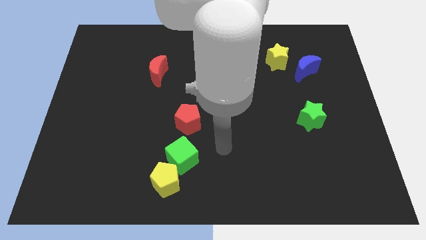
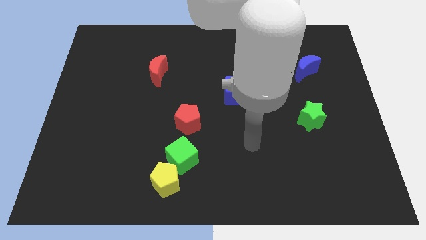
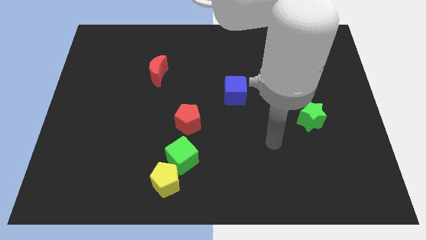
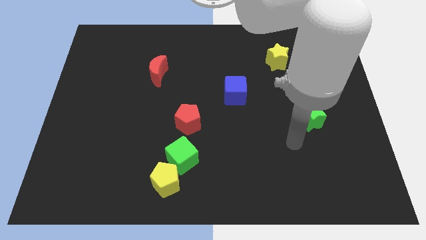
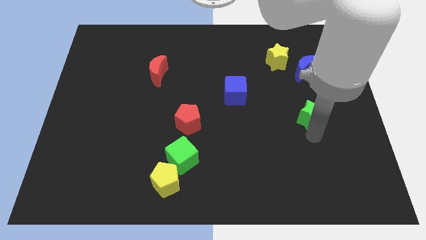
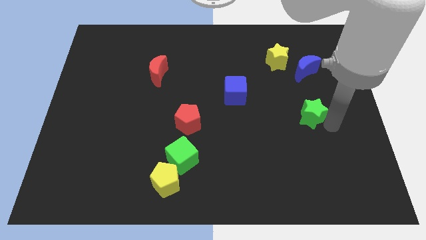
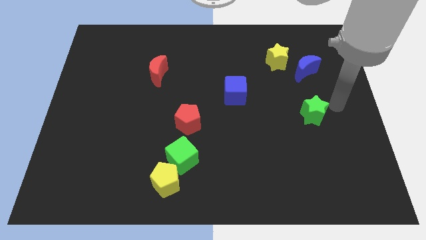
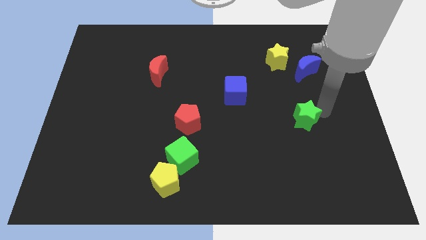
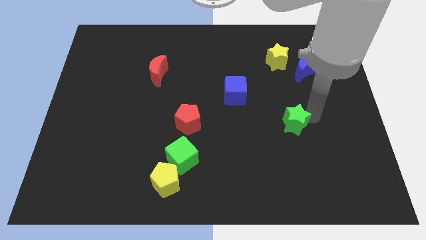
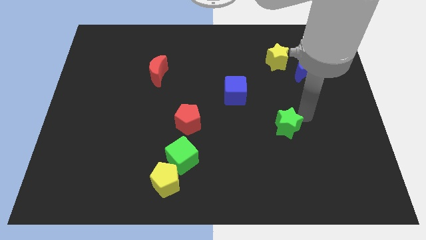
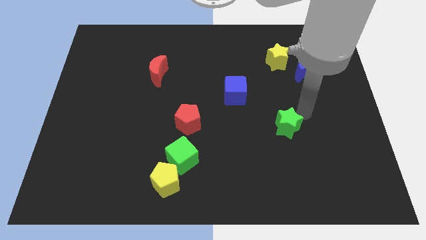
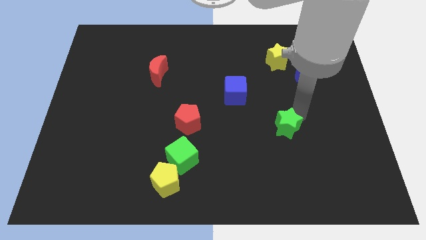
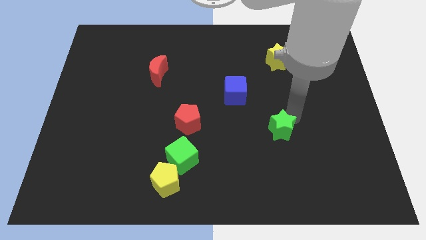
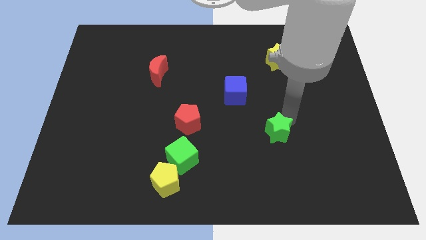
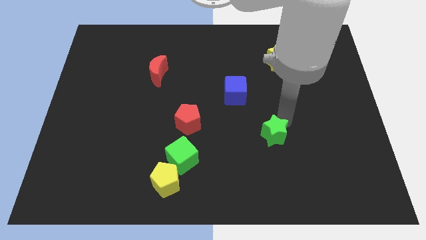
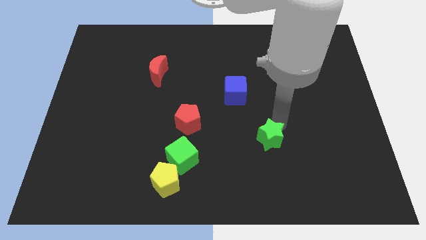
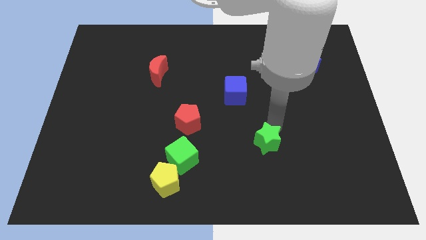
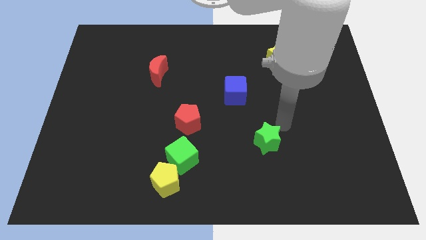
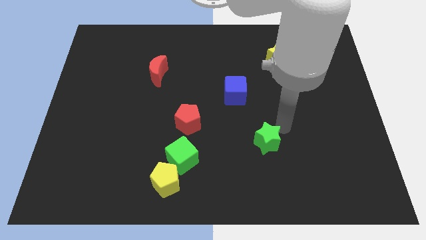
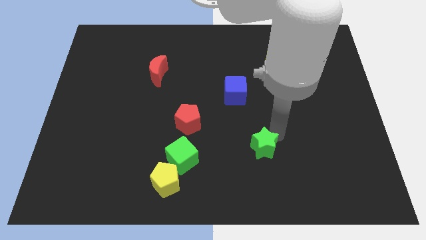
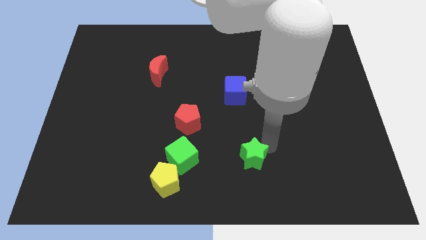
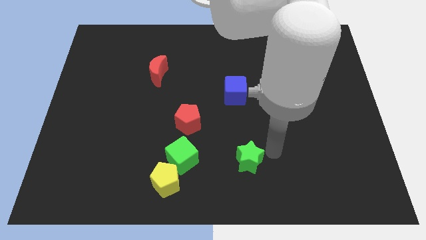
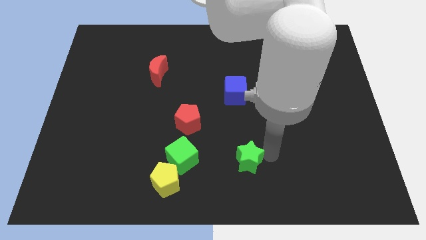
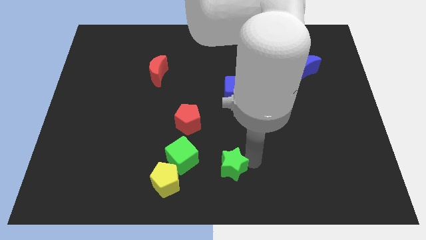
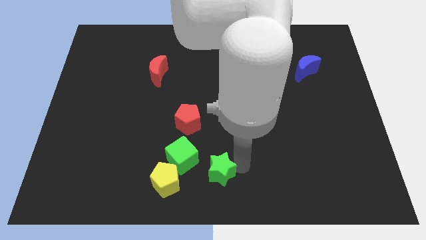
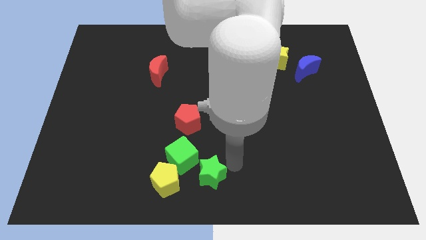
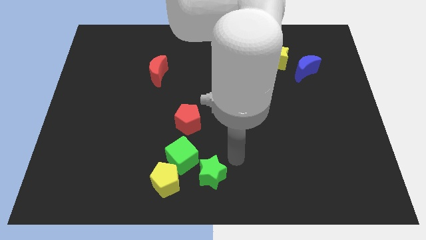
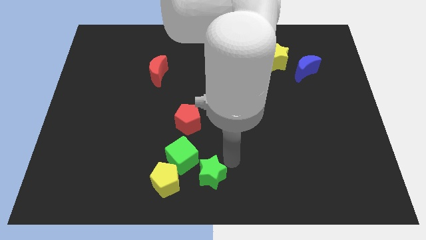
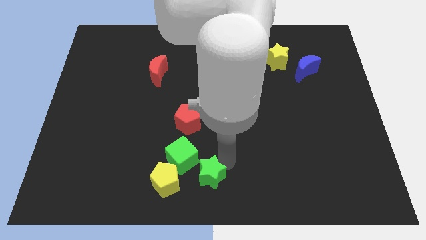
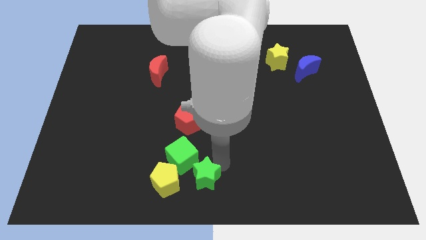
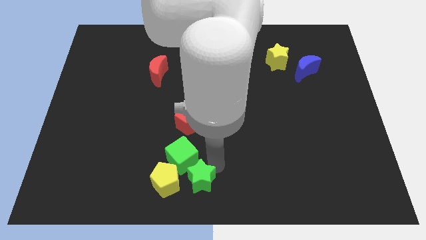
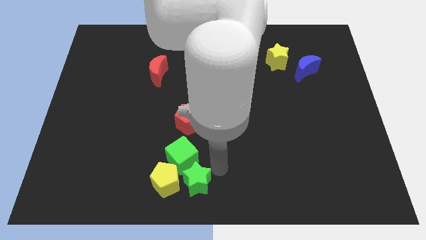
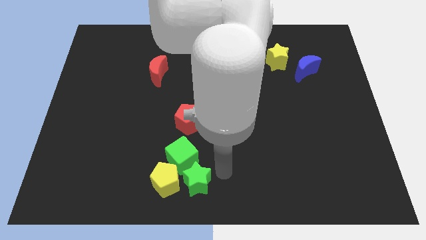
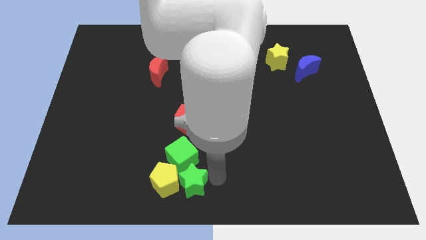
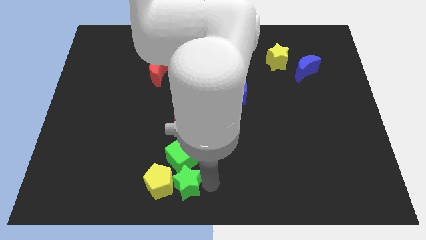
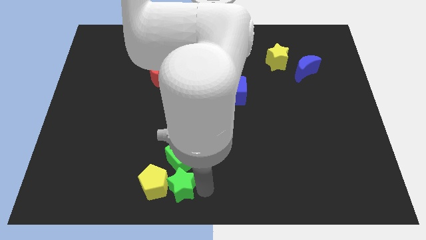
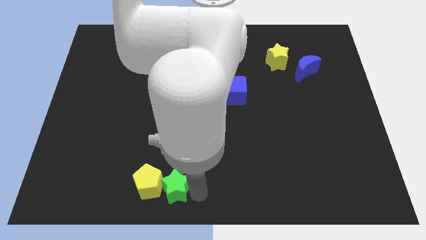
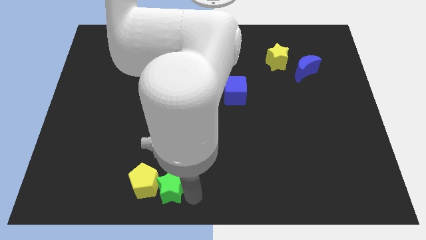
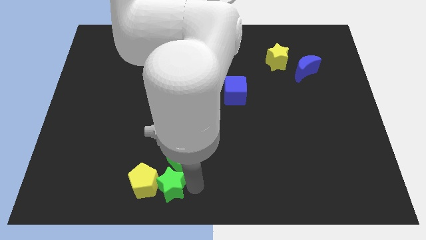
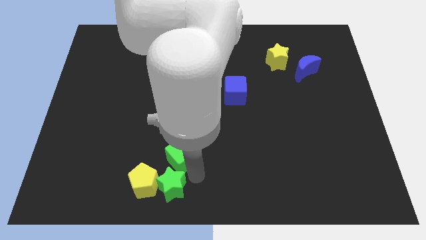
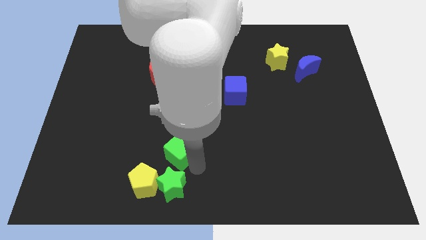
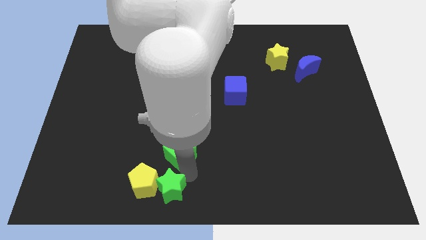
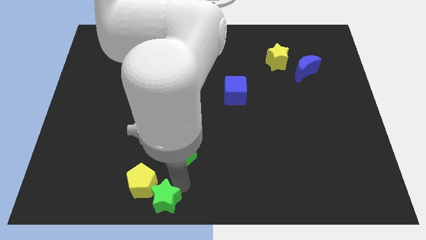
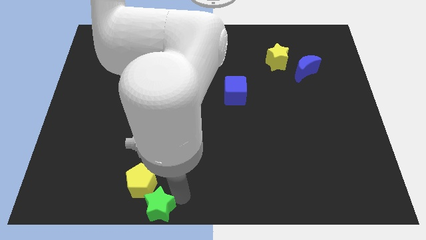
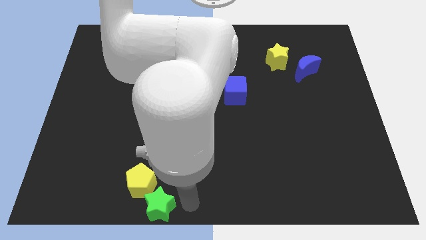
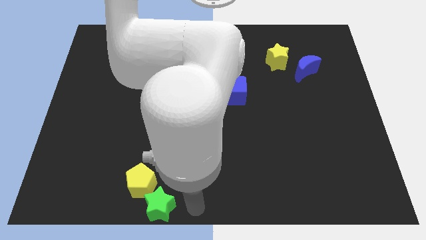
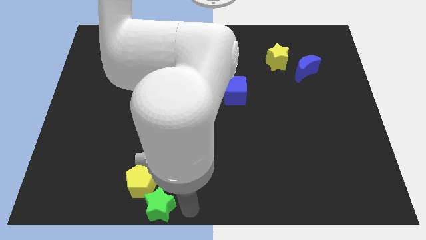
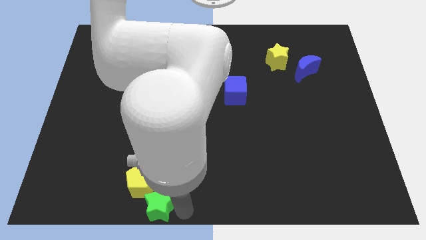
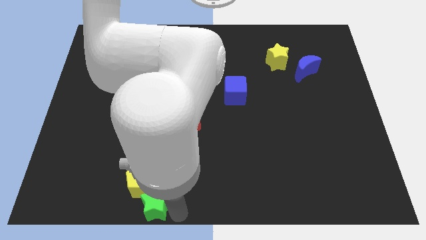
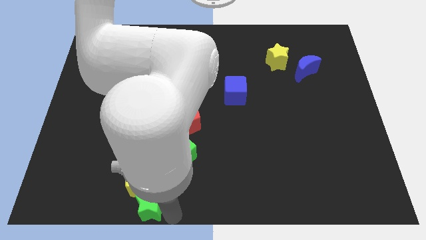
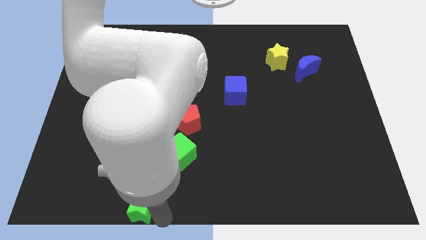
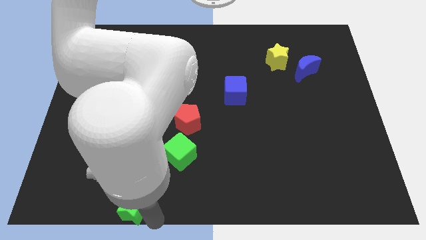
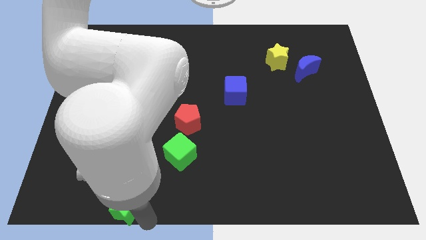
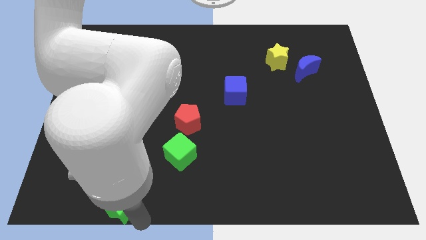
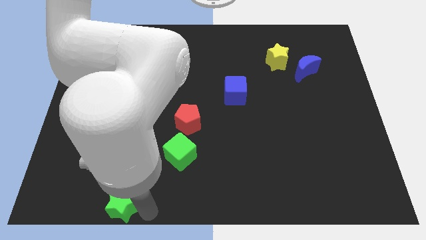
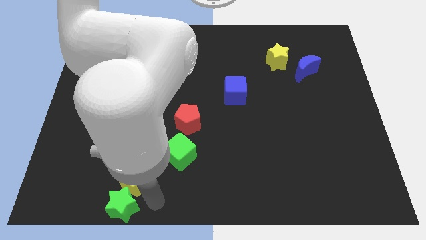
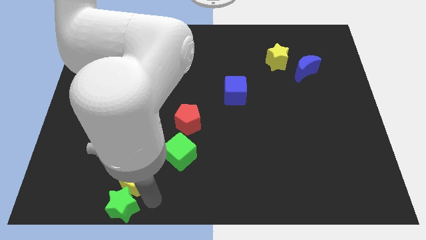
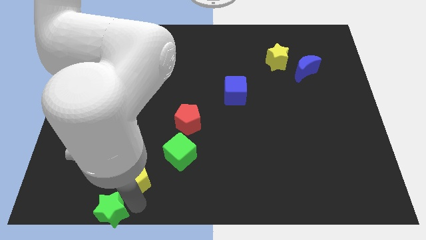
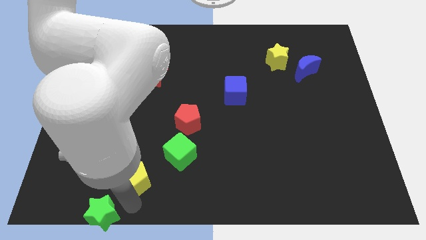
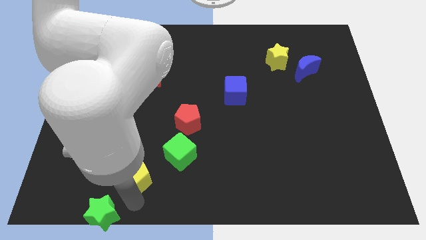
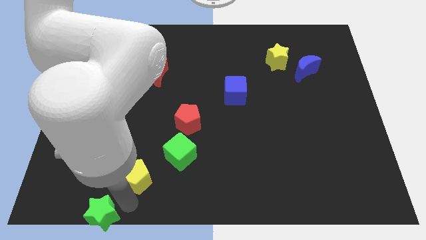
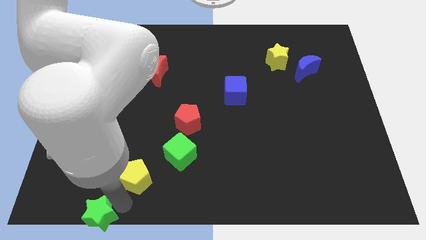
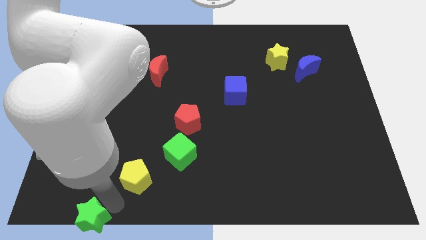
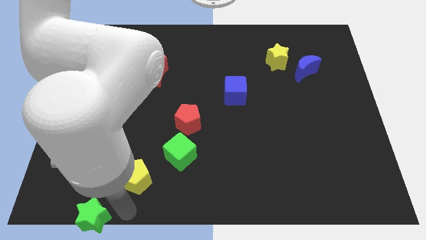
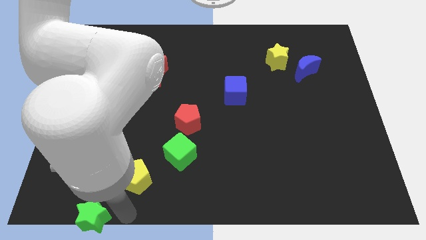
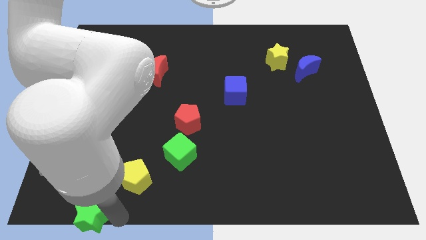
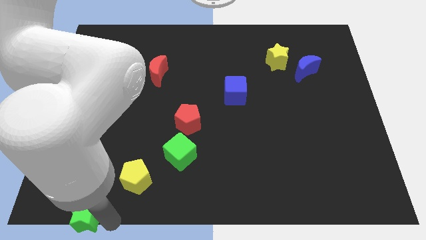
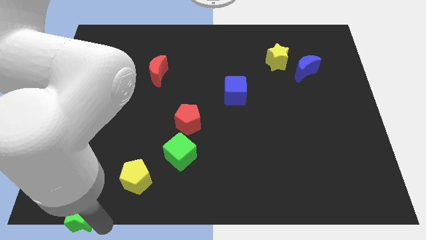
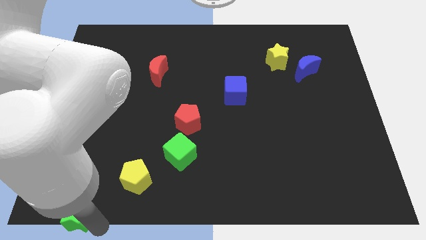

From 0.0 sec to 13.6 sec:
slide the green star to the bottom left of the board

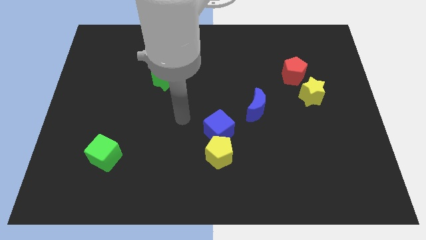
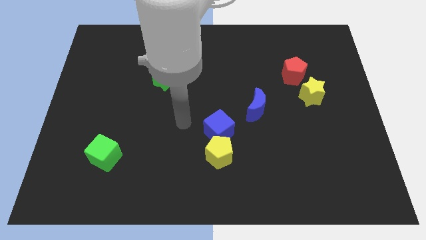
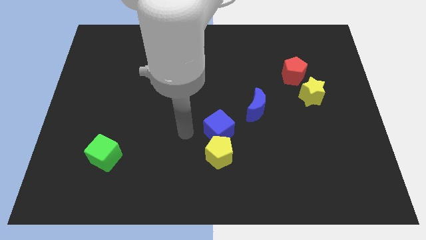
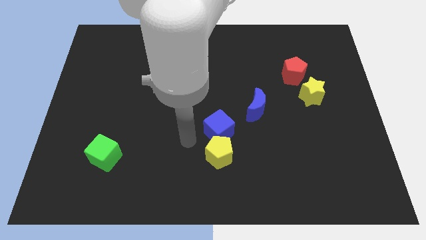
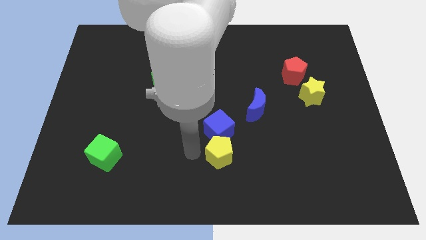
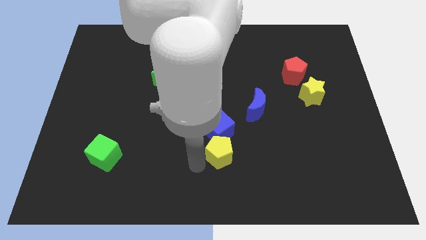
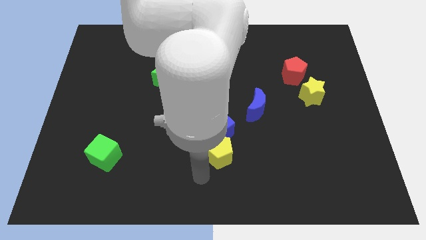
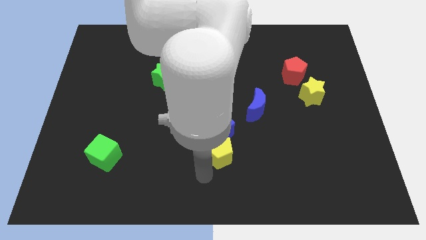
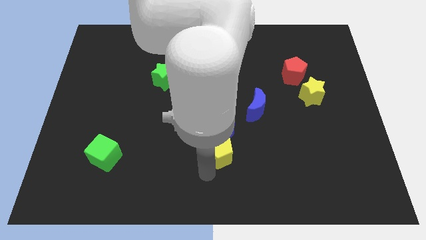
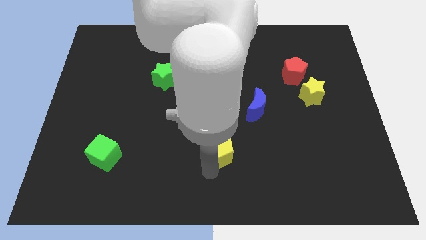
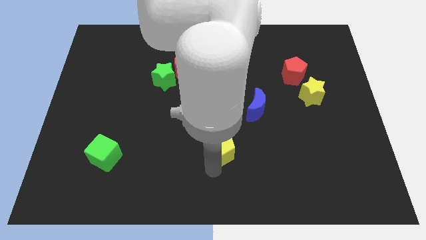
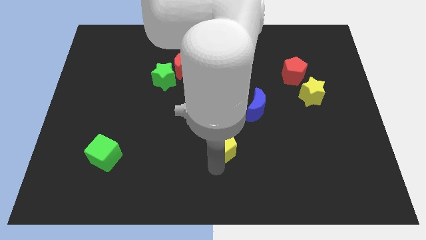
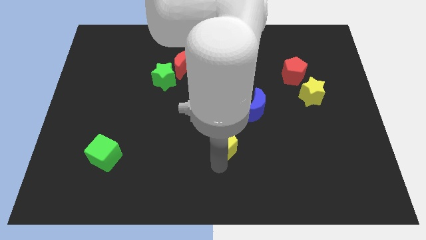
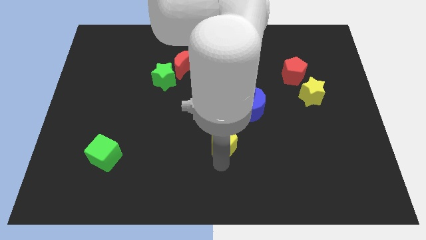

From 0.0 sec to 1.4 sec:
push the yellow pentagon to the middle of the board
